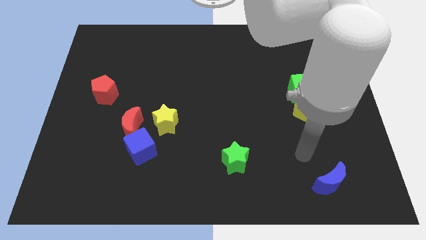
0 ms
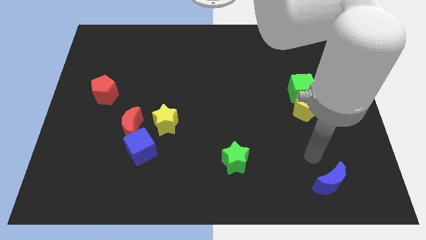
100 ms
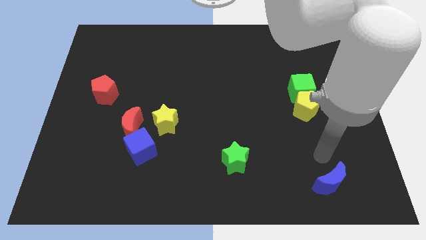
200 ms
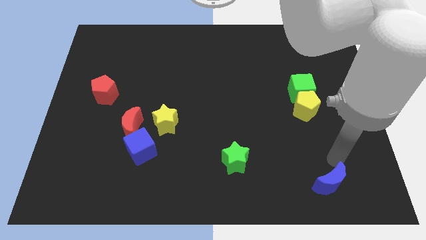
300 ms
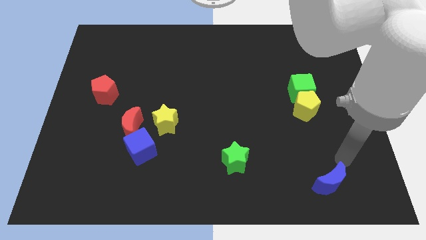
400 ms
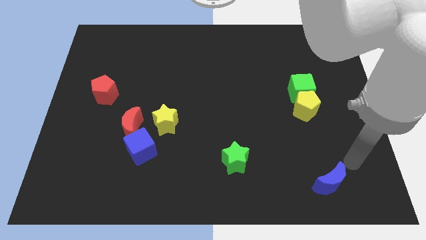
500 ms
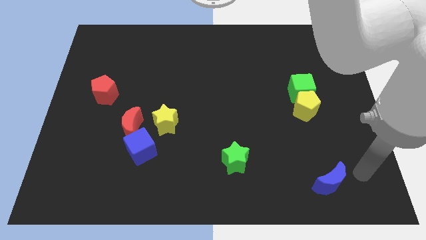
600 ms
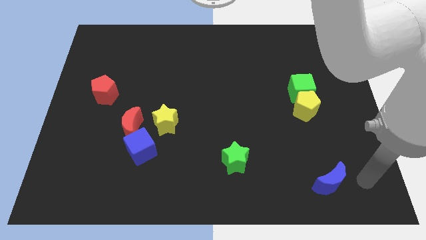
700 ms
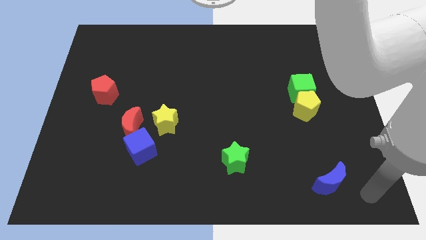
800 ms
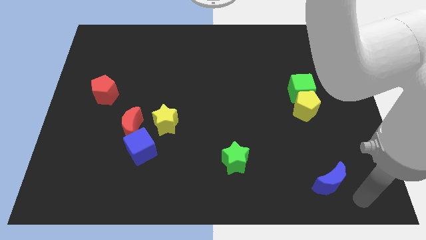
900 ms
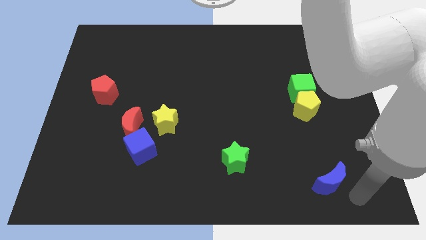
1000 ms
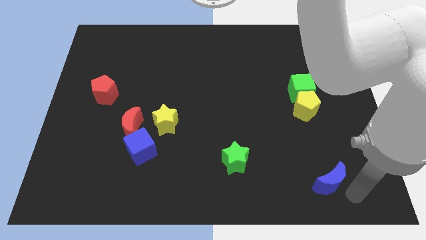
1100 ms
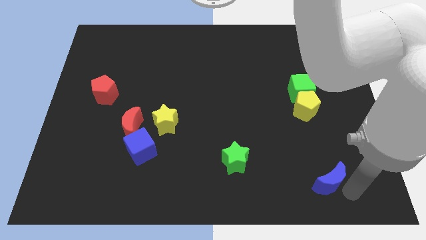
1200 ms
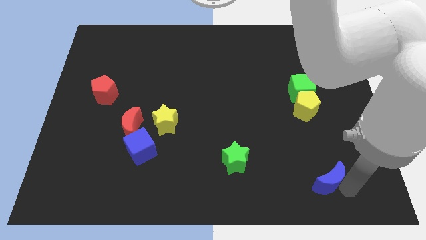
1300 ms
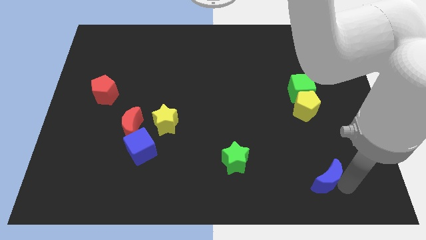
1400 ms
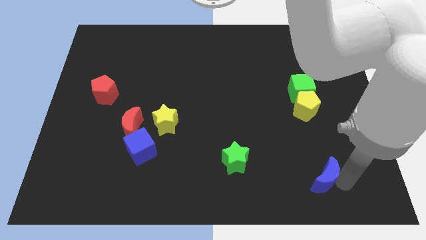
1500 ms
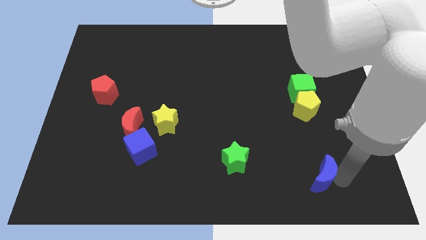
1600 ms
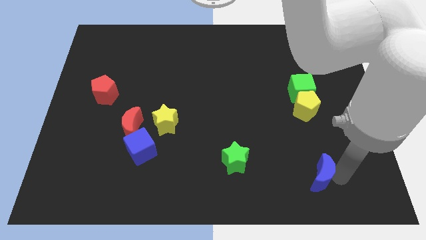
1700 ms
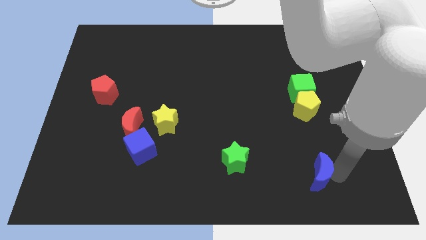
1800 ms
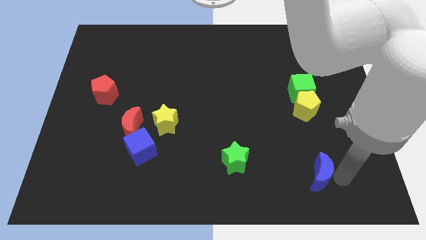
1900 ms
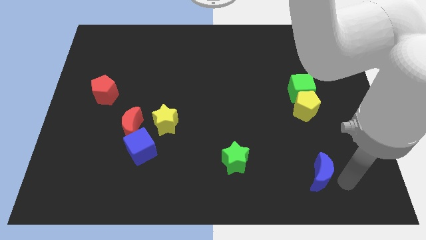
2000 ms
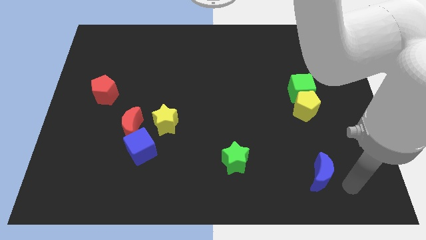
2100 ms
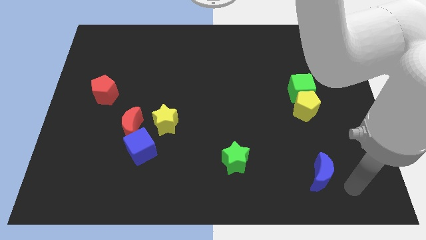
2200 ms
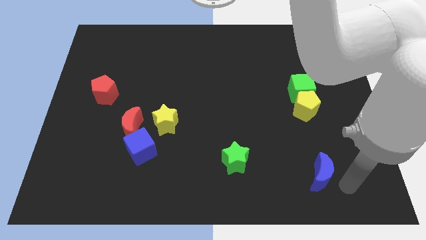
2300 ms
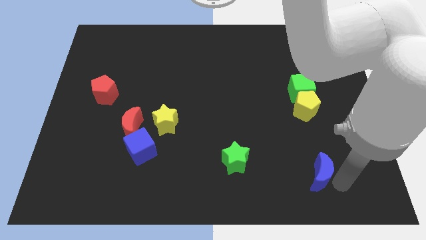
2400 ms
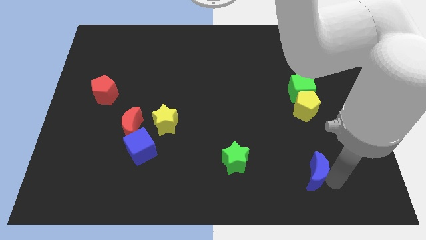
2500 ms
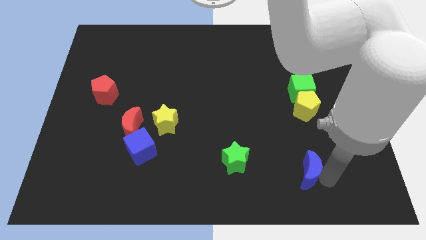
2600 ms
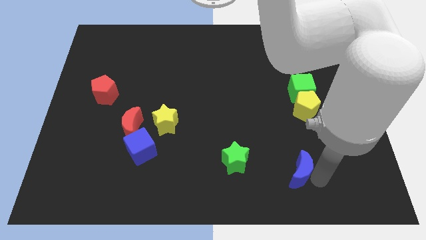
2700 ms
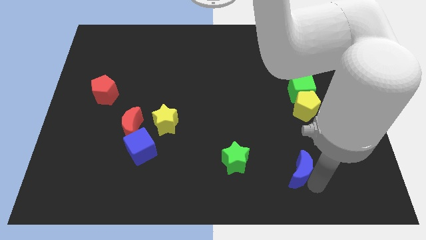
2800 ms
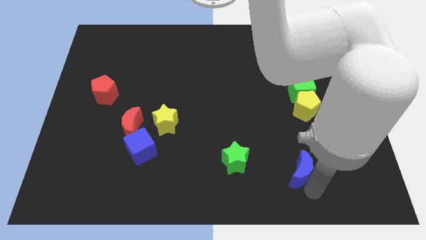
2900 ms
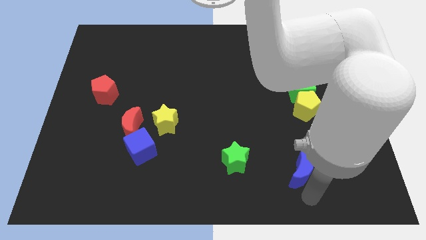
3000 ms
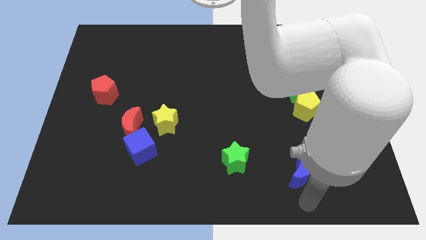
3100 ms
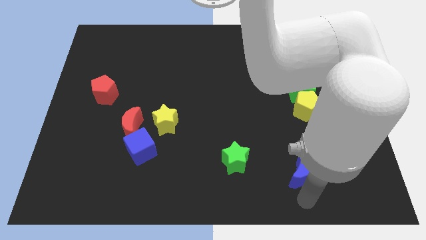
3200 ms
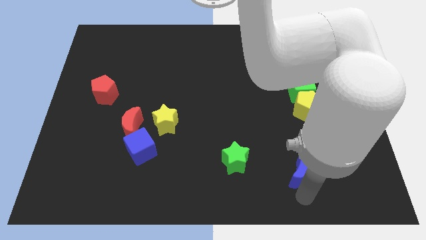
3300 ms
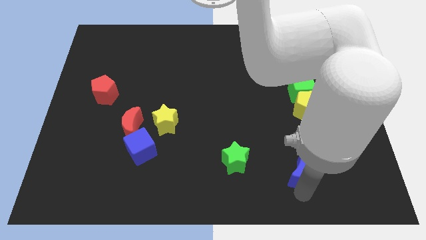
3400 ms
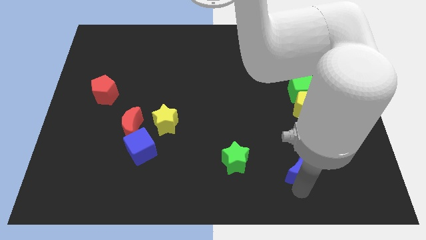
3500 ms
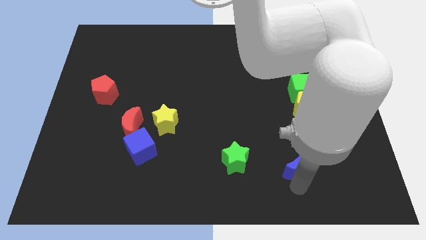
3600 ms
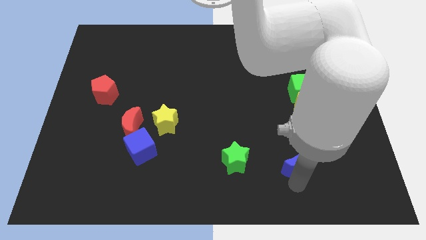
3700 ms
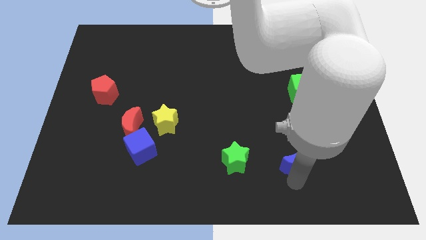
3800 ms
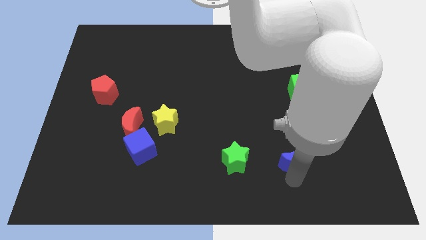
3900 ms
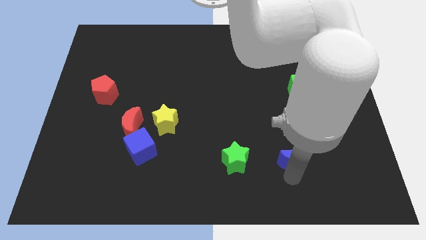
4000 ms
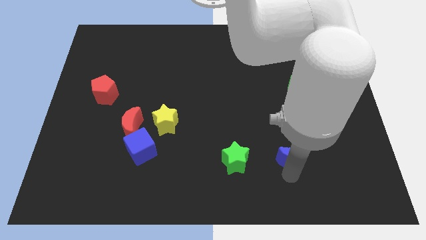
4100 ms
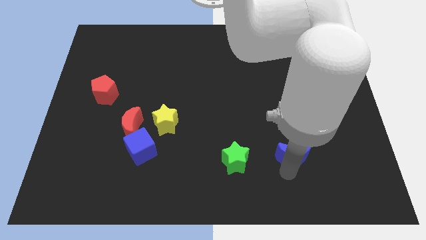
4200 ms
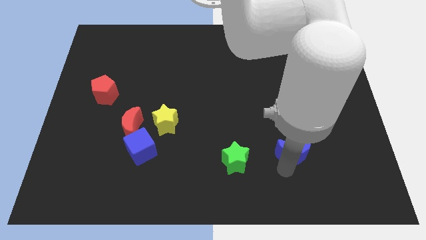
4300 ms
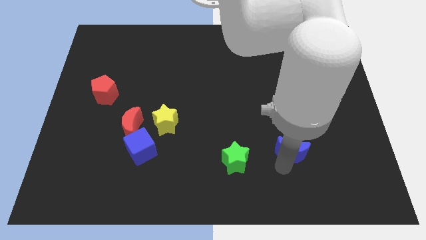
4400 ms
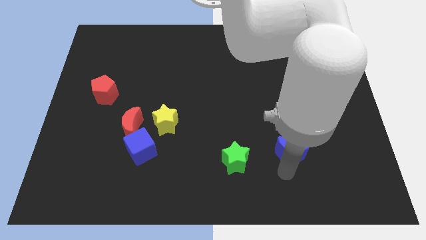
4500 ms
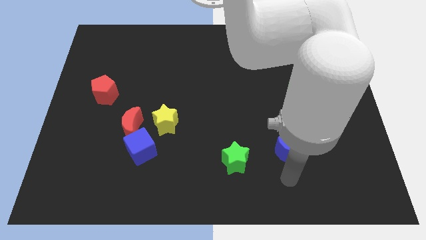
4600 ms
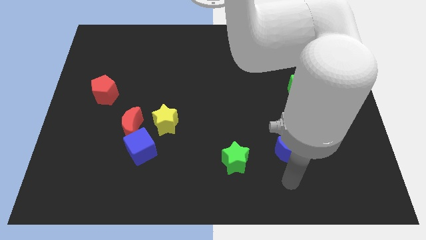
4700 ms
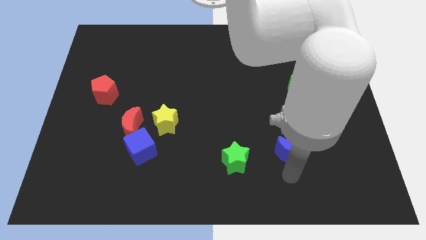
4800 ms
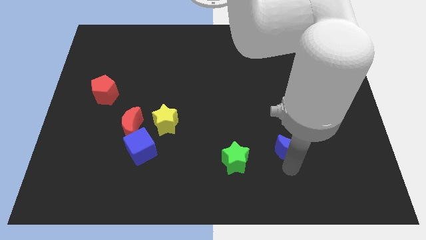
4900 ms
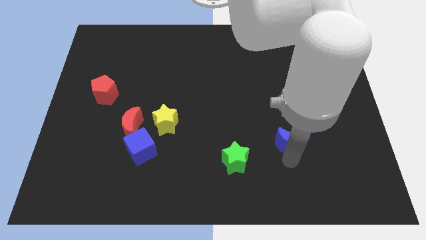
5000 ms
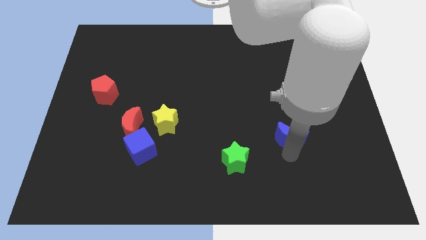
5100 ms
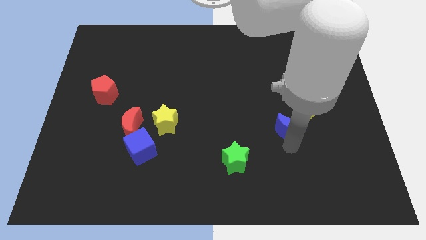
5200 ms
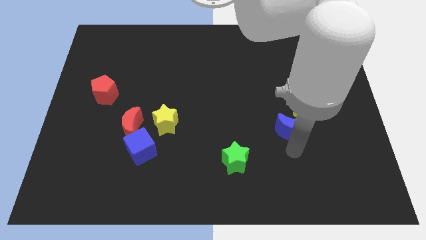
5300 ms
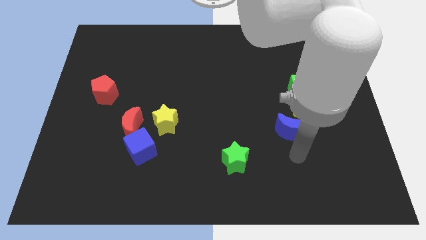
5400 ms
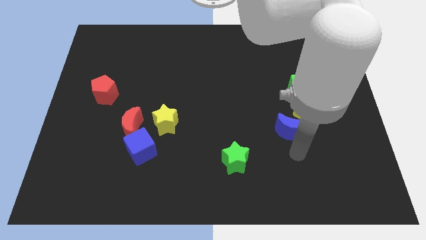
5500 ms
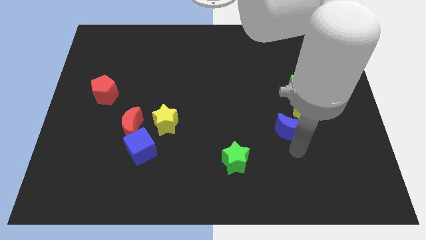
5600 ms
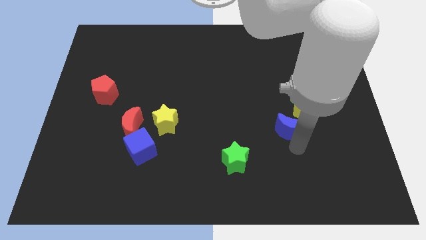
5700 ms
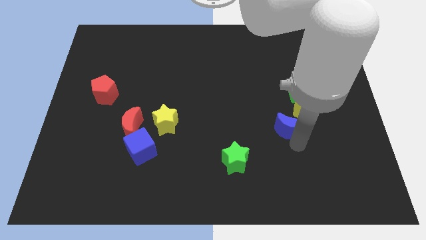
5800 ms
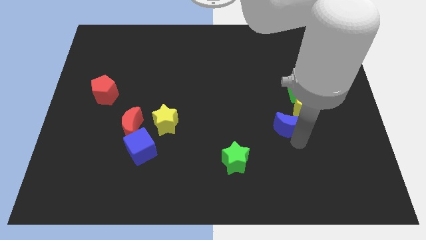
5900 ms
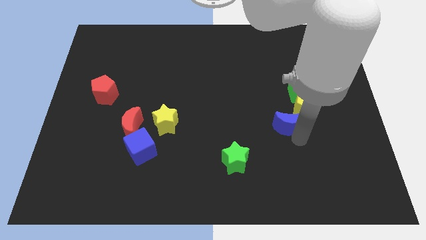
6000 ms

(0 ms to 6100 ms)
slide the blue moon diagonally down and to the left of the green cube
